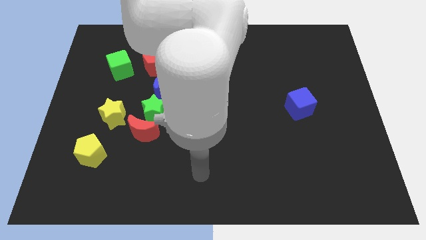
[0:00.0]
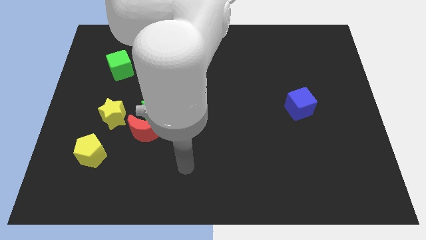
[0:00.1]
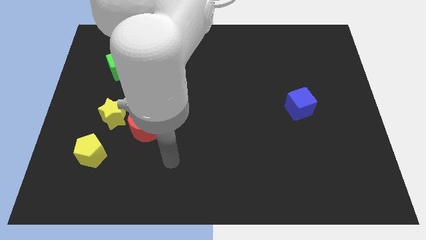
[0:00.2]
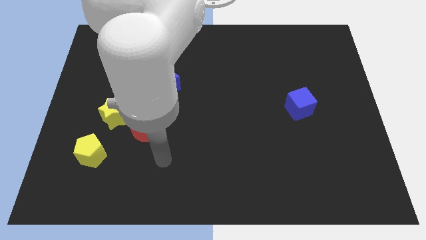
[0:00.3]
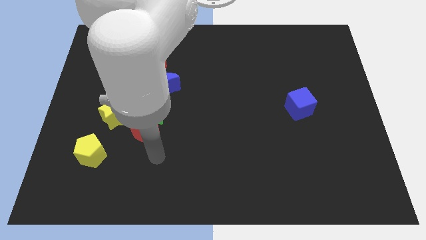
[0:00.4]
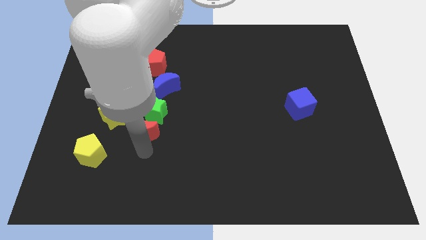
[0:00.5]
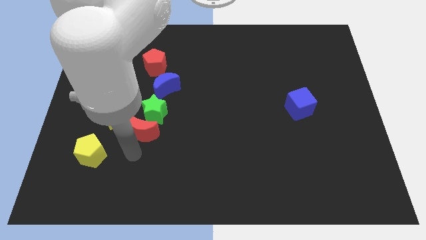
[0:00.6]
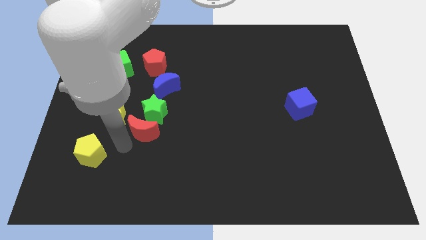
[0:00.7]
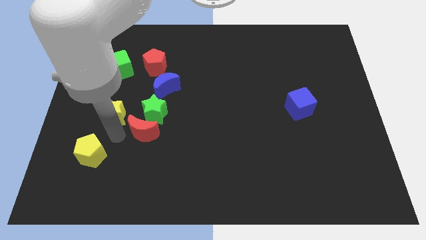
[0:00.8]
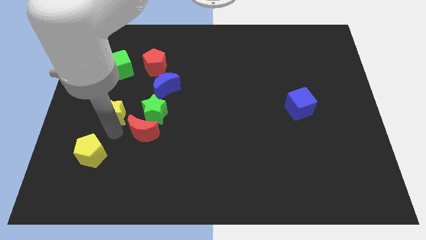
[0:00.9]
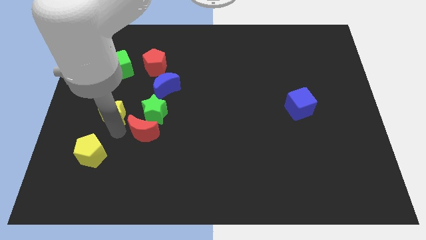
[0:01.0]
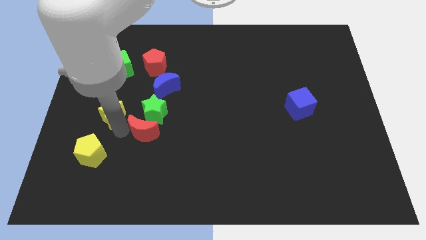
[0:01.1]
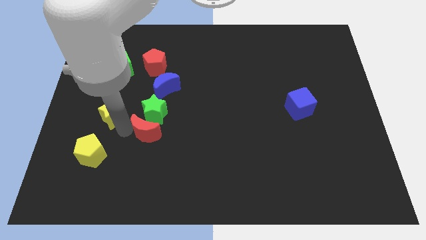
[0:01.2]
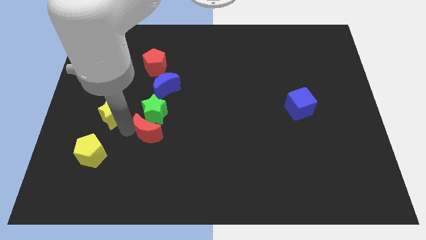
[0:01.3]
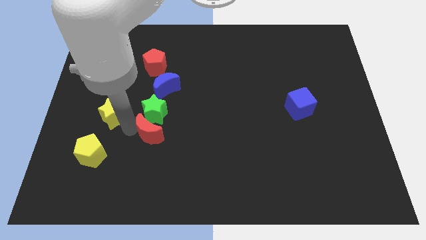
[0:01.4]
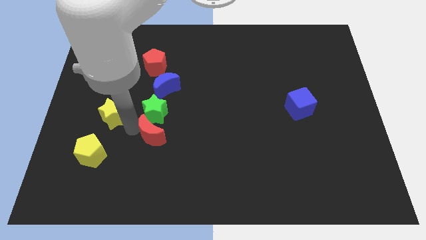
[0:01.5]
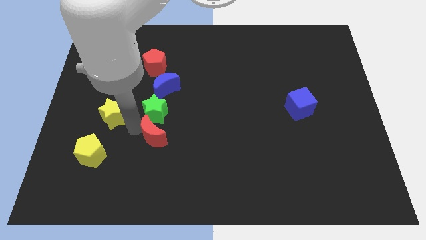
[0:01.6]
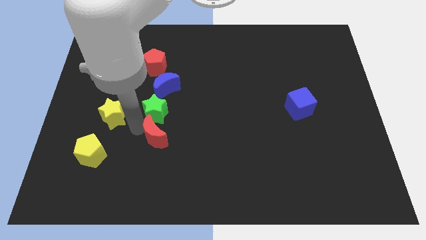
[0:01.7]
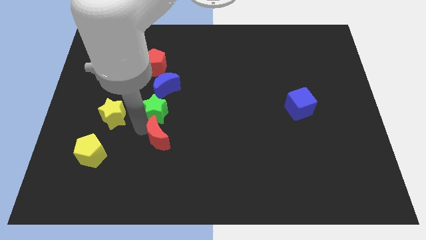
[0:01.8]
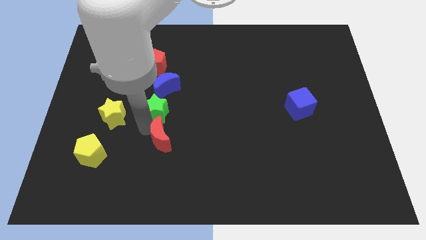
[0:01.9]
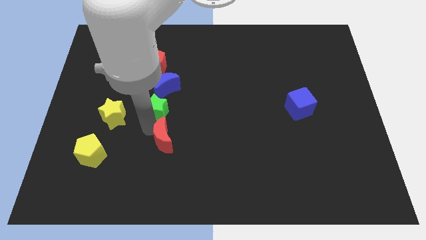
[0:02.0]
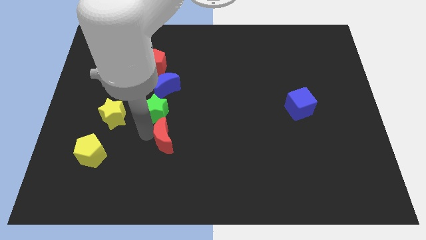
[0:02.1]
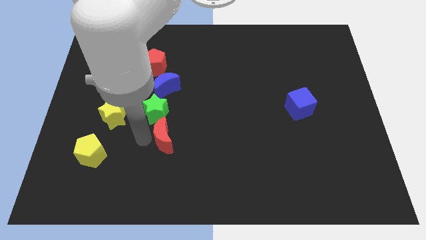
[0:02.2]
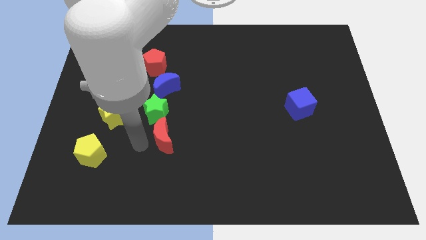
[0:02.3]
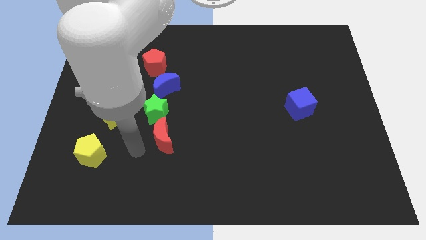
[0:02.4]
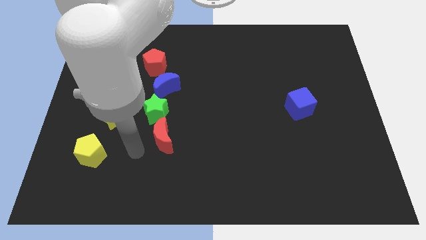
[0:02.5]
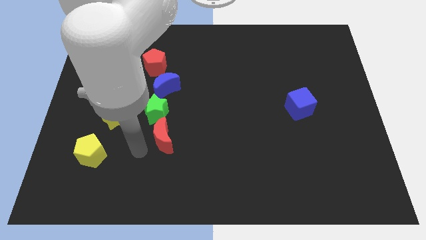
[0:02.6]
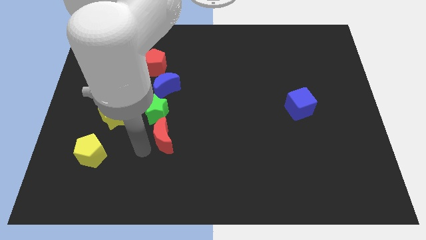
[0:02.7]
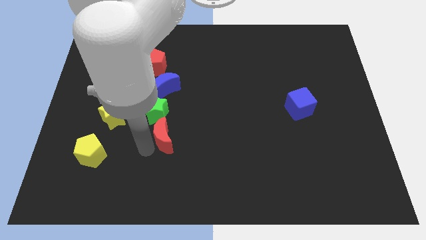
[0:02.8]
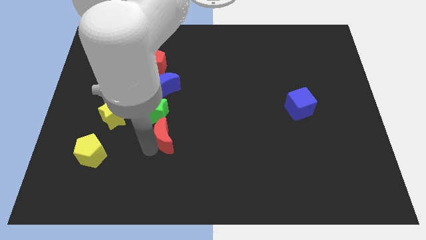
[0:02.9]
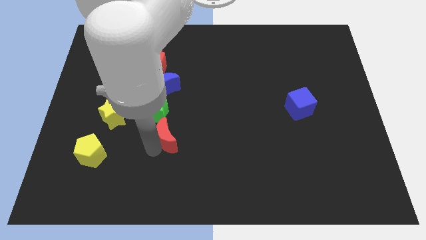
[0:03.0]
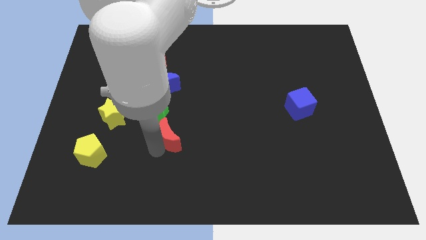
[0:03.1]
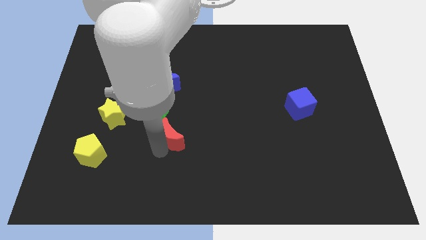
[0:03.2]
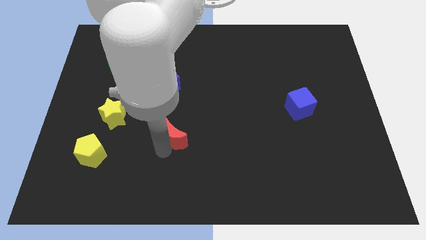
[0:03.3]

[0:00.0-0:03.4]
slightly move the red moon to the right

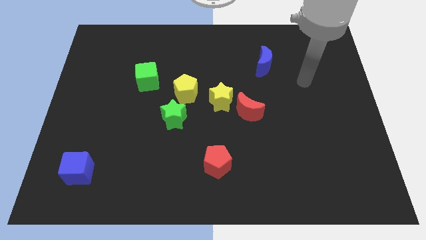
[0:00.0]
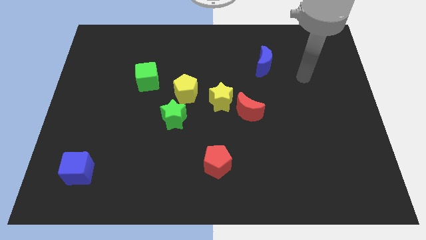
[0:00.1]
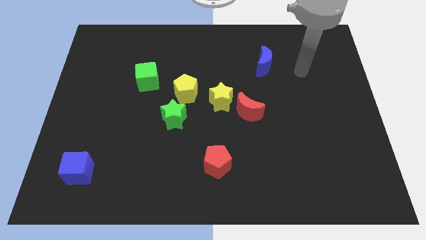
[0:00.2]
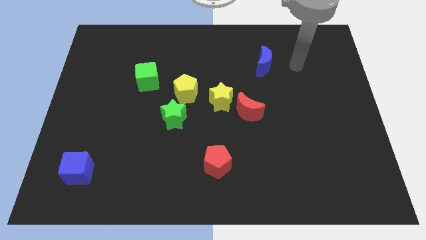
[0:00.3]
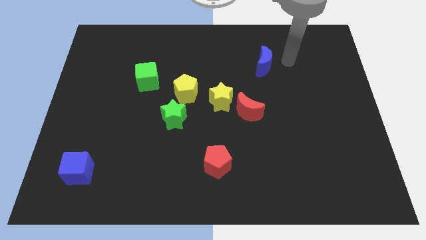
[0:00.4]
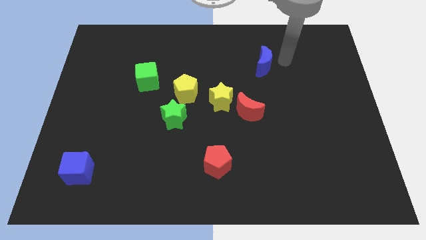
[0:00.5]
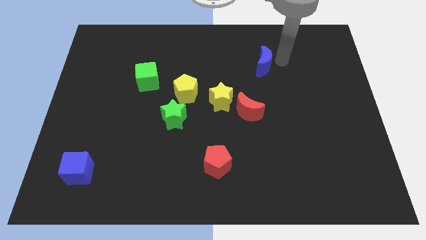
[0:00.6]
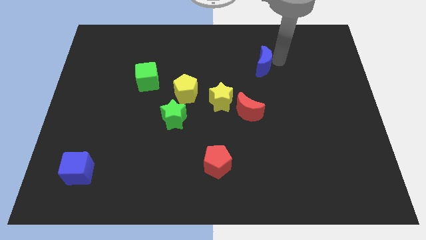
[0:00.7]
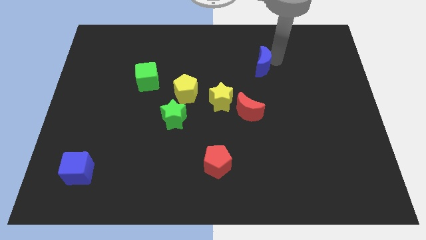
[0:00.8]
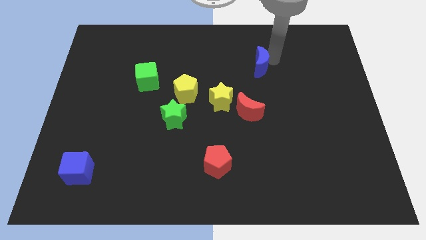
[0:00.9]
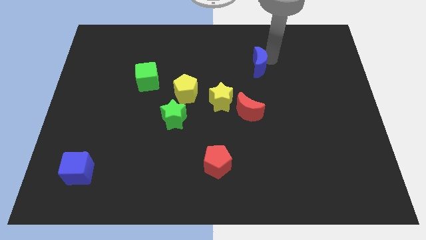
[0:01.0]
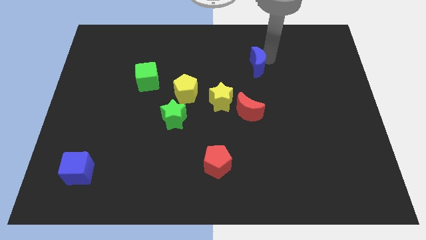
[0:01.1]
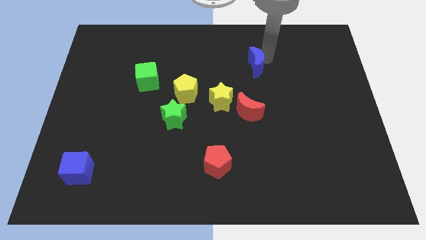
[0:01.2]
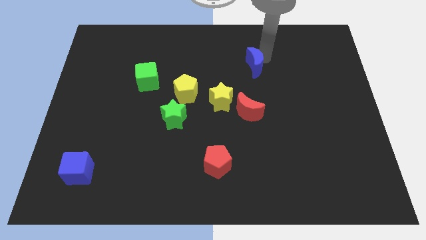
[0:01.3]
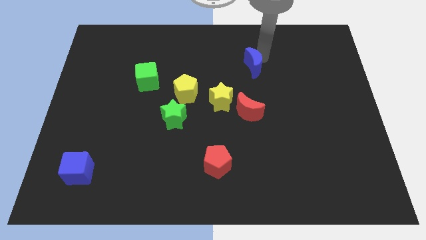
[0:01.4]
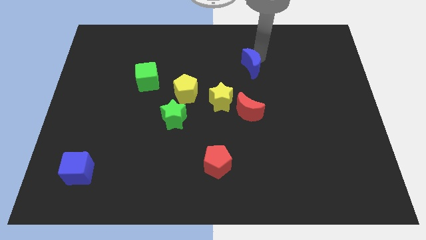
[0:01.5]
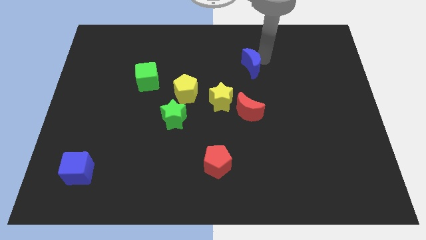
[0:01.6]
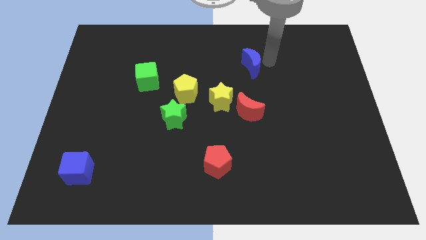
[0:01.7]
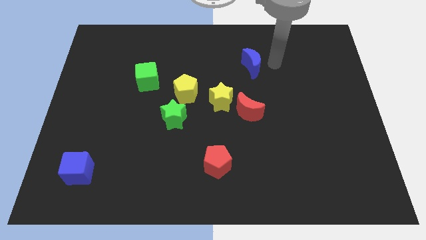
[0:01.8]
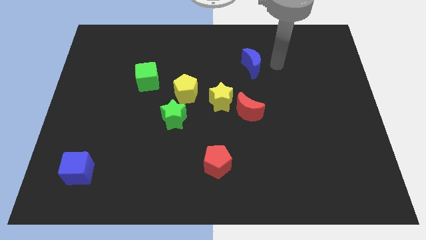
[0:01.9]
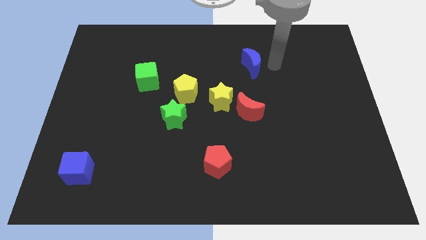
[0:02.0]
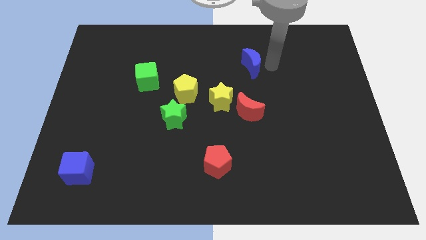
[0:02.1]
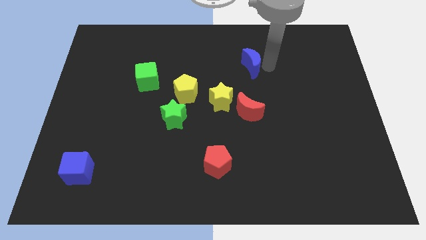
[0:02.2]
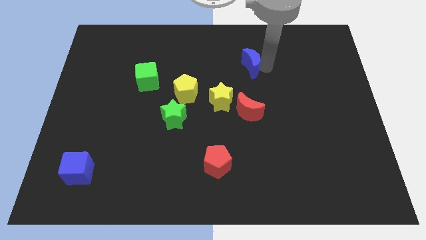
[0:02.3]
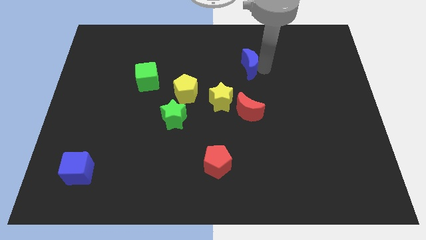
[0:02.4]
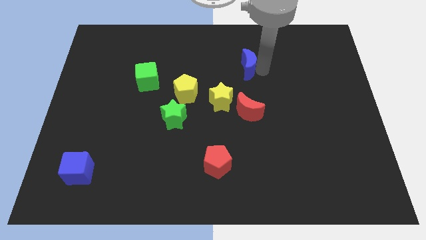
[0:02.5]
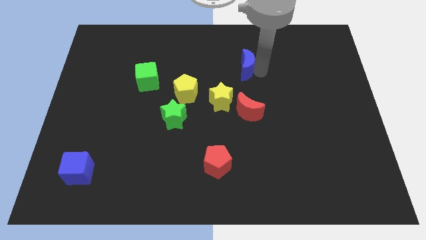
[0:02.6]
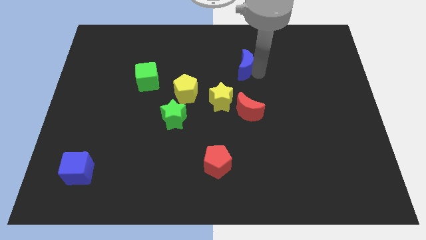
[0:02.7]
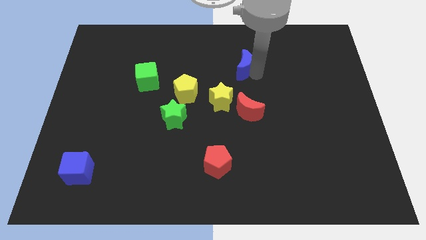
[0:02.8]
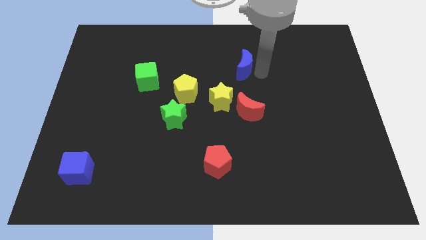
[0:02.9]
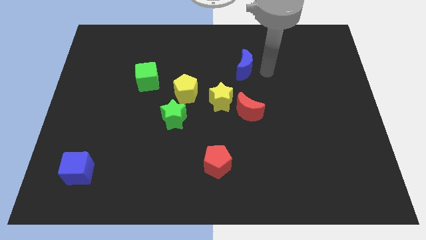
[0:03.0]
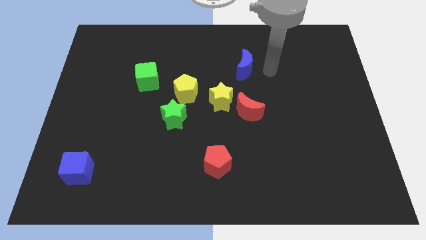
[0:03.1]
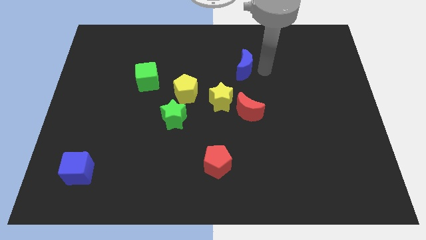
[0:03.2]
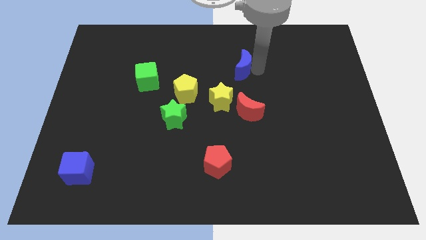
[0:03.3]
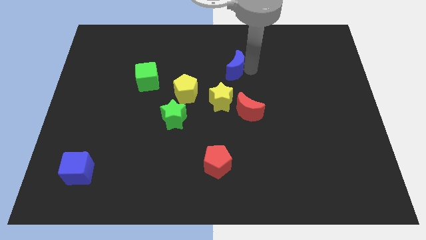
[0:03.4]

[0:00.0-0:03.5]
push the blue moon a little bit left

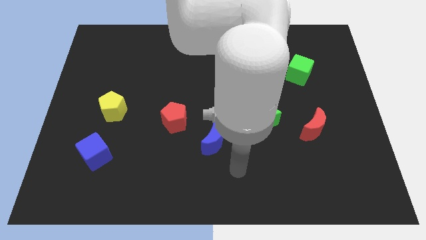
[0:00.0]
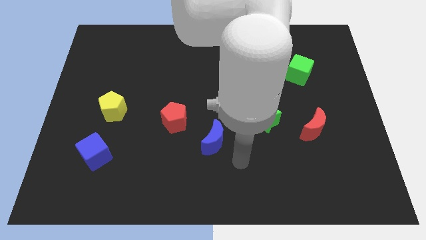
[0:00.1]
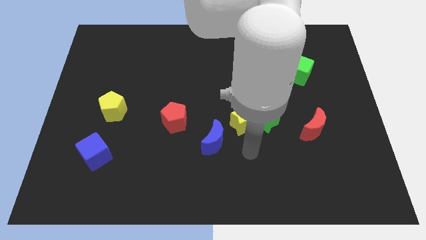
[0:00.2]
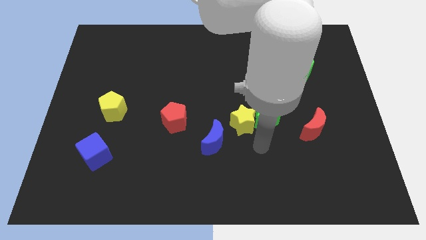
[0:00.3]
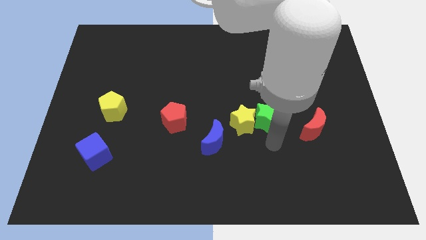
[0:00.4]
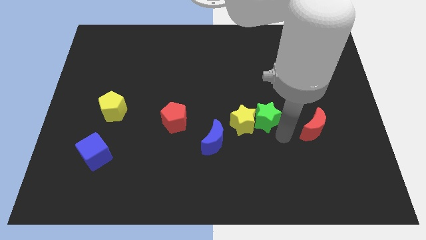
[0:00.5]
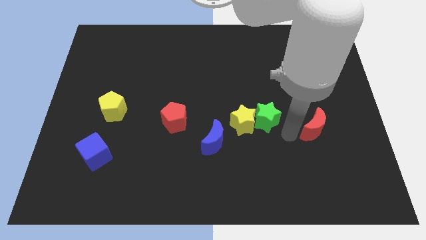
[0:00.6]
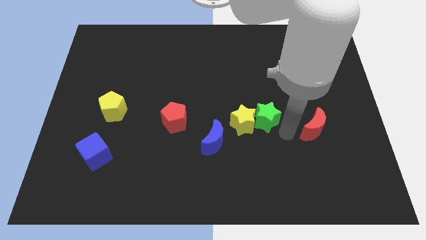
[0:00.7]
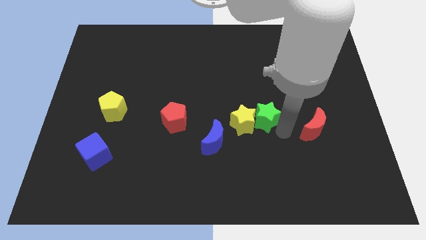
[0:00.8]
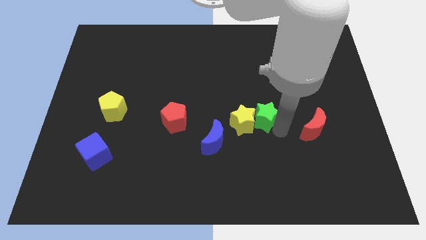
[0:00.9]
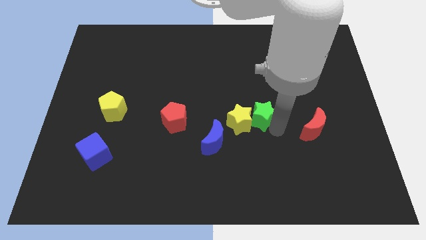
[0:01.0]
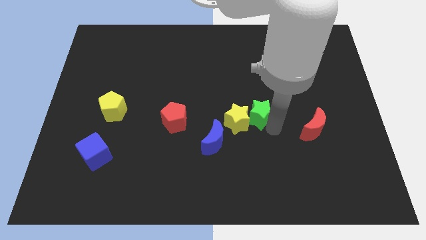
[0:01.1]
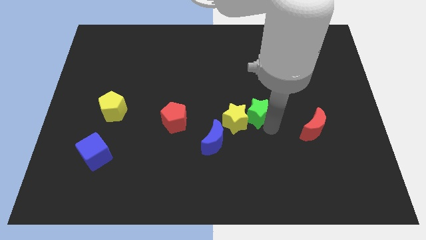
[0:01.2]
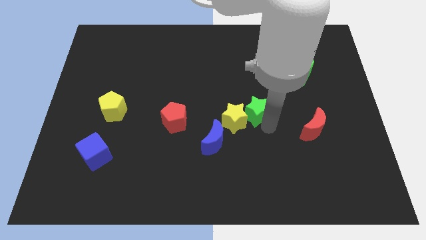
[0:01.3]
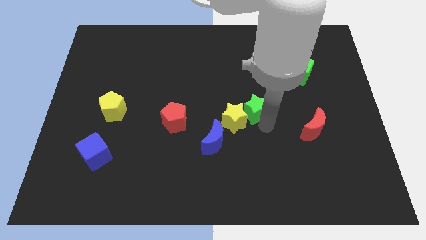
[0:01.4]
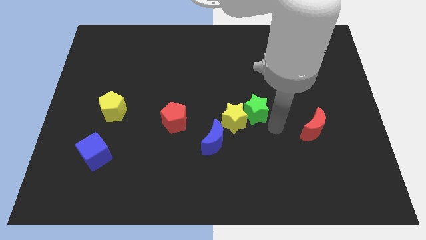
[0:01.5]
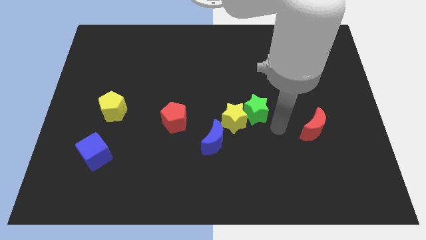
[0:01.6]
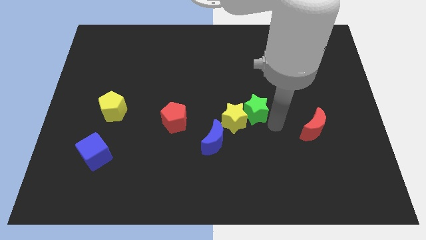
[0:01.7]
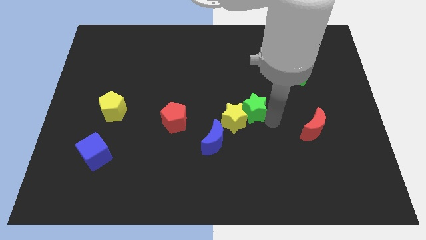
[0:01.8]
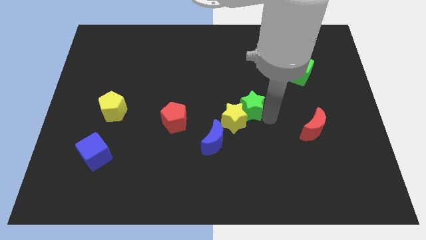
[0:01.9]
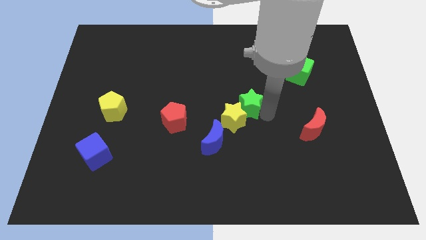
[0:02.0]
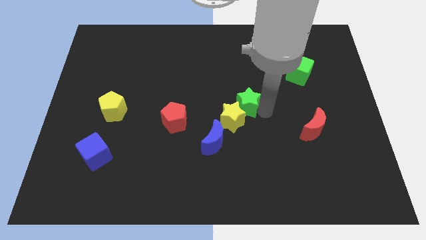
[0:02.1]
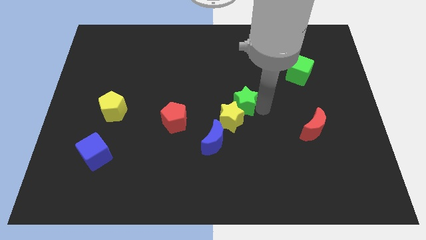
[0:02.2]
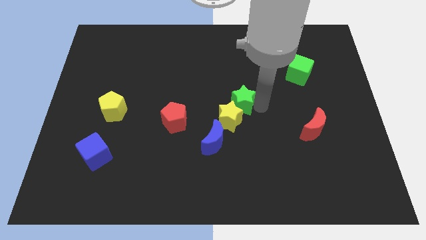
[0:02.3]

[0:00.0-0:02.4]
move the green star up and then to the left somewhat
